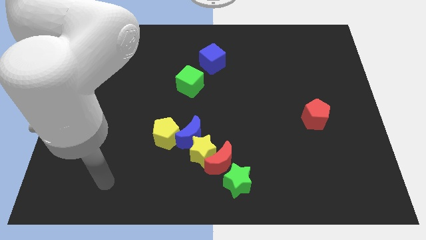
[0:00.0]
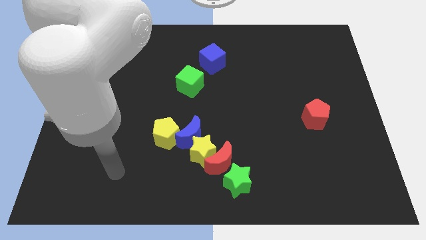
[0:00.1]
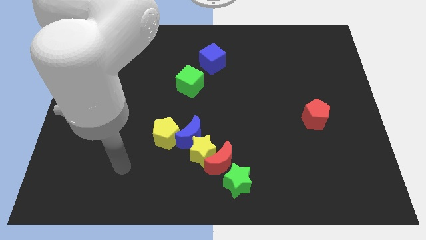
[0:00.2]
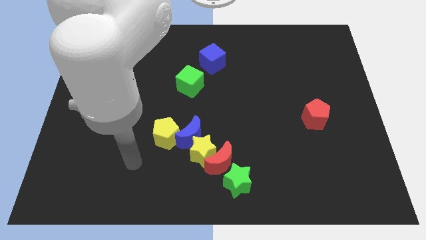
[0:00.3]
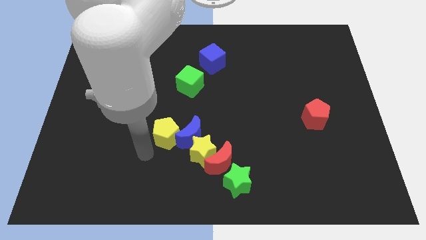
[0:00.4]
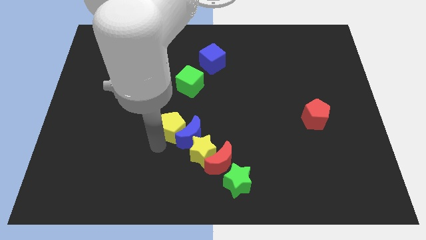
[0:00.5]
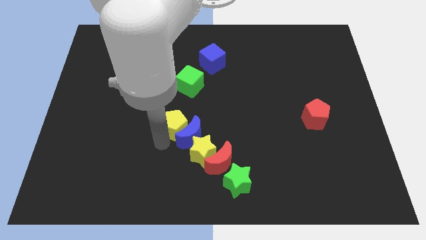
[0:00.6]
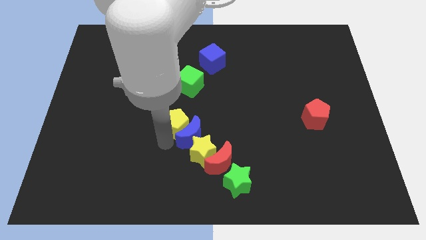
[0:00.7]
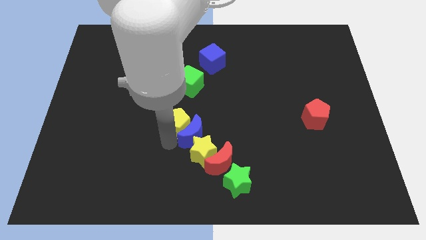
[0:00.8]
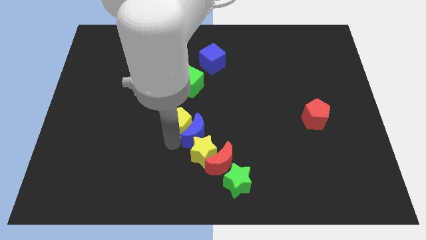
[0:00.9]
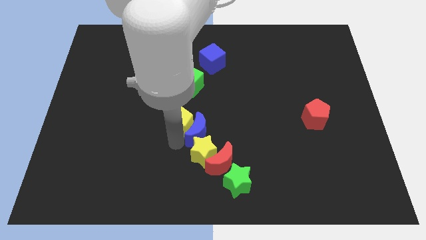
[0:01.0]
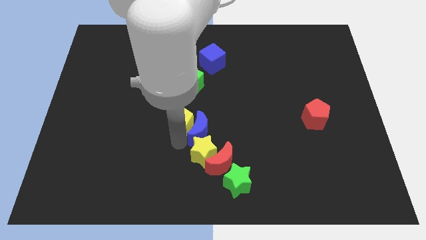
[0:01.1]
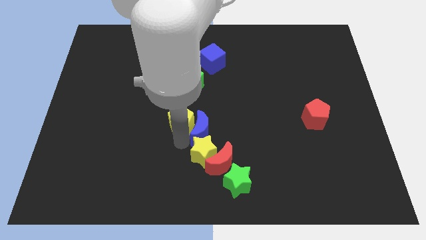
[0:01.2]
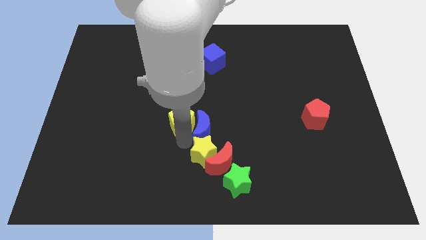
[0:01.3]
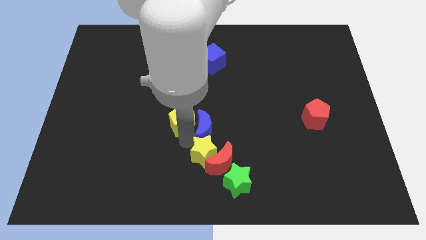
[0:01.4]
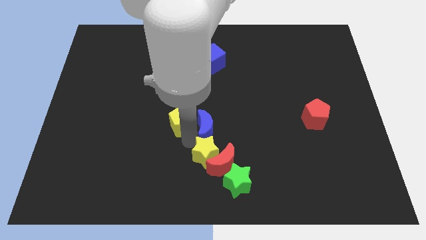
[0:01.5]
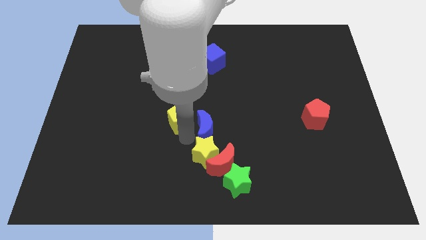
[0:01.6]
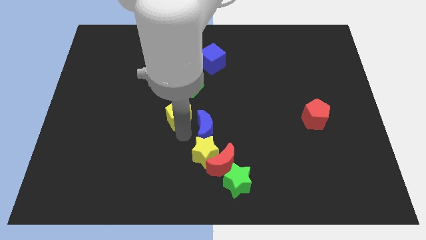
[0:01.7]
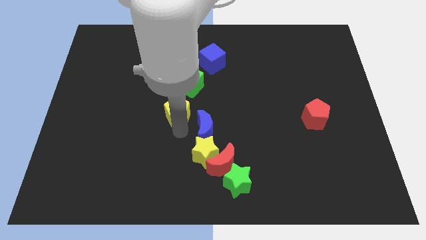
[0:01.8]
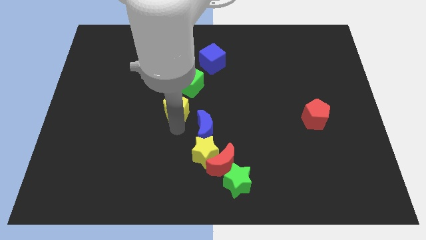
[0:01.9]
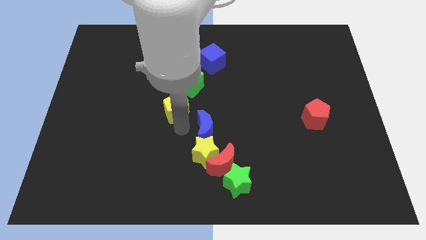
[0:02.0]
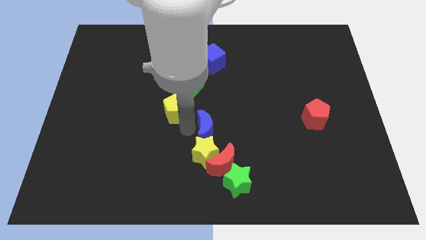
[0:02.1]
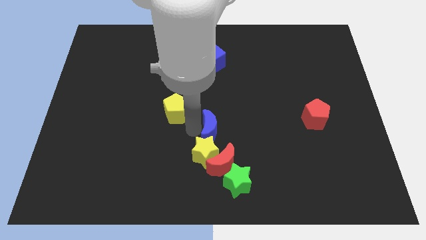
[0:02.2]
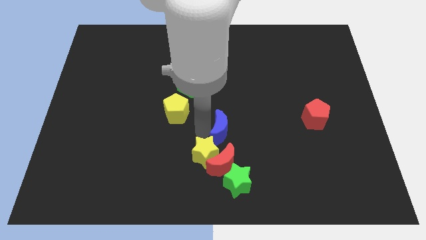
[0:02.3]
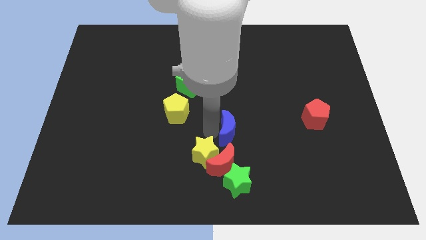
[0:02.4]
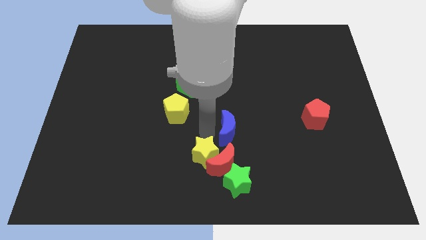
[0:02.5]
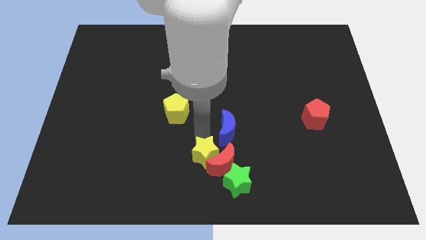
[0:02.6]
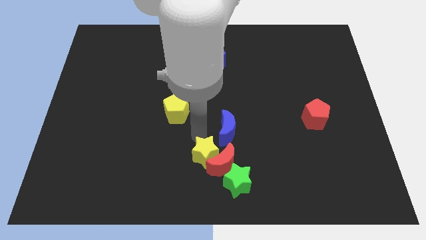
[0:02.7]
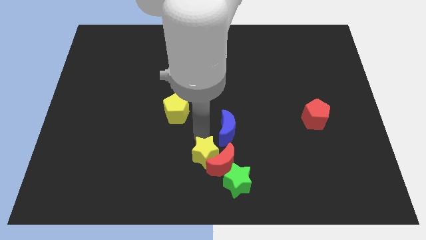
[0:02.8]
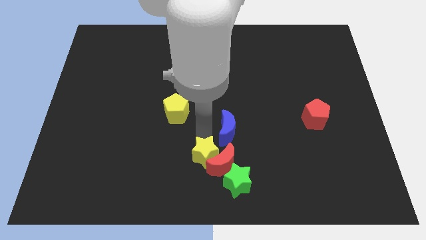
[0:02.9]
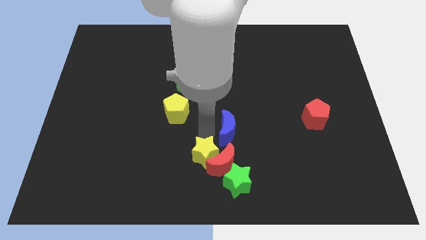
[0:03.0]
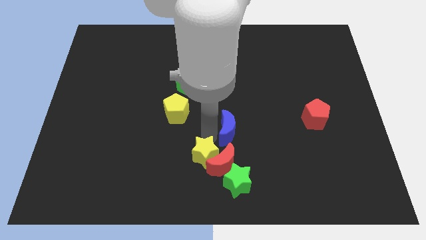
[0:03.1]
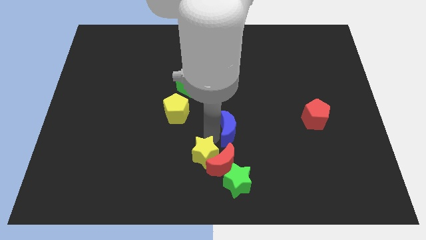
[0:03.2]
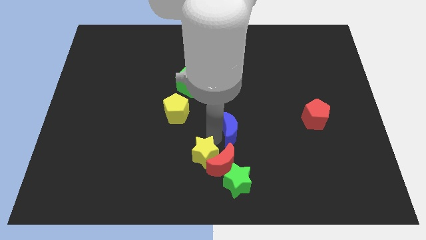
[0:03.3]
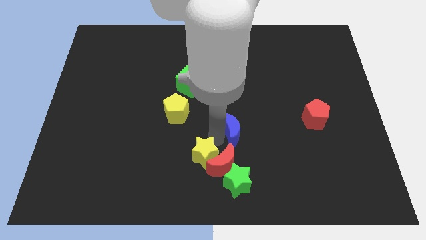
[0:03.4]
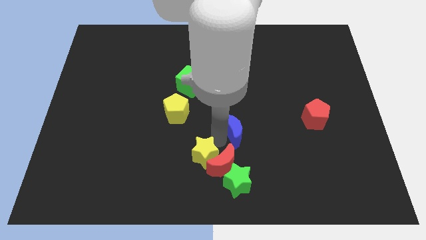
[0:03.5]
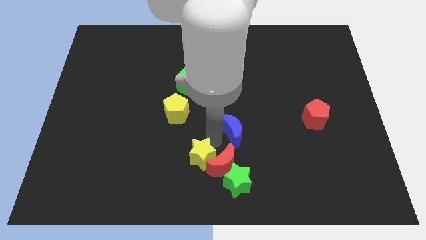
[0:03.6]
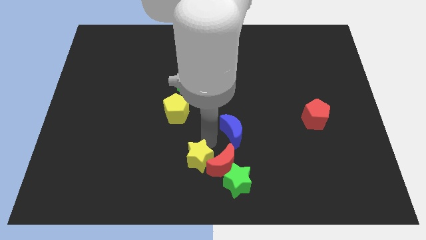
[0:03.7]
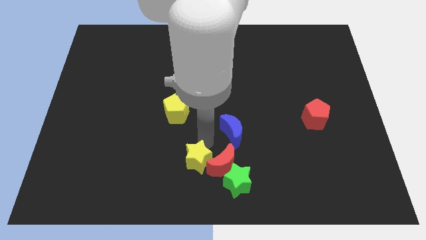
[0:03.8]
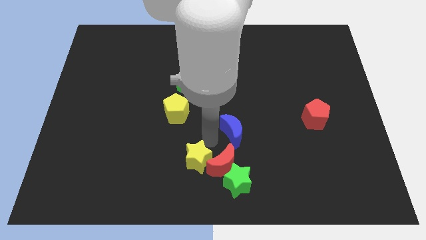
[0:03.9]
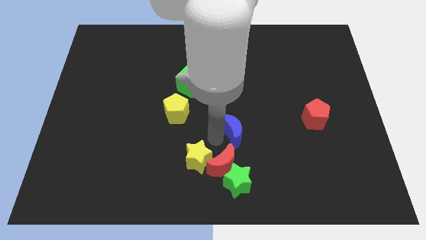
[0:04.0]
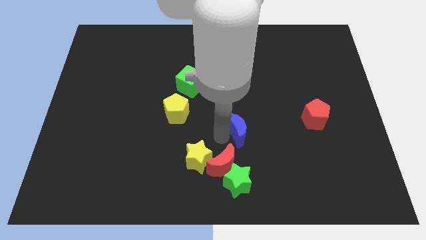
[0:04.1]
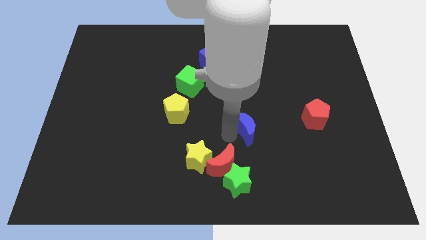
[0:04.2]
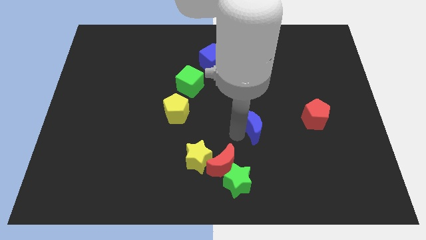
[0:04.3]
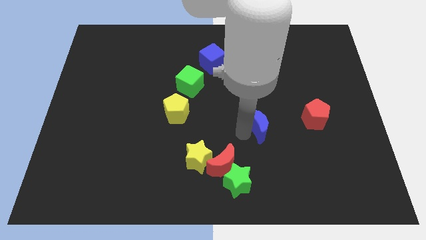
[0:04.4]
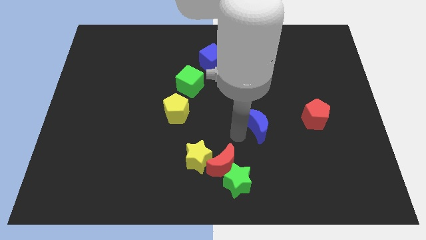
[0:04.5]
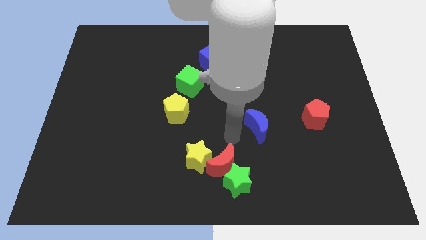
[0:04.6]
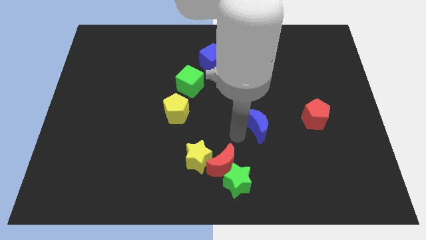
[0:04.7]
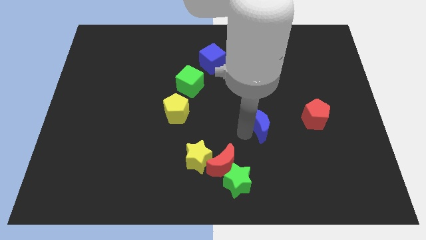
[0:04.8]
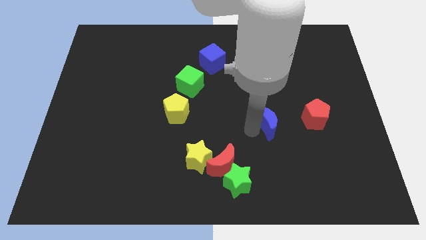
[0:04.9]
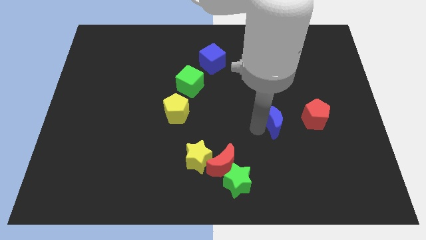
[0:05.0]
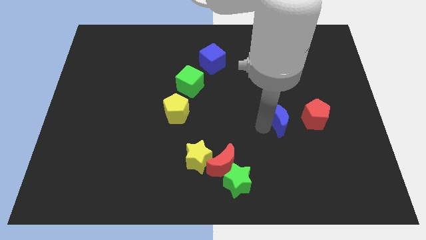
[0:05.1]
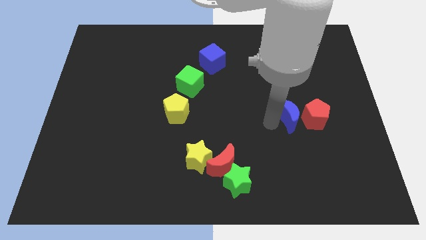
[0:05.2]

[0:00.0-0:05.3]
move the blue moon towards the red pentagon
